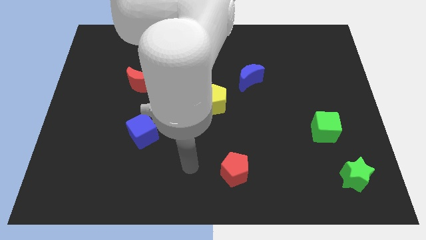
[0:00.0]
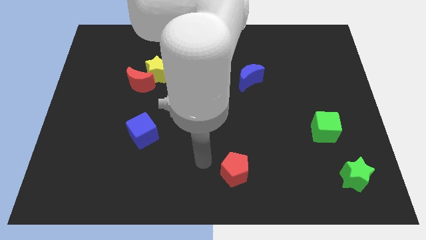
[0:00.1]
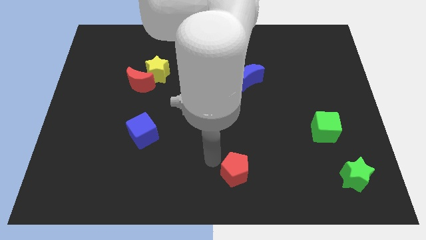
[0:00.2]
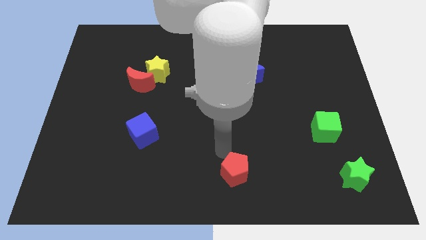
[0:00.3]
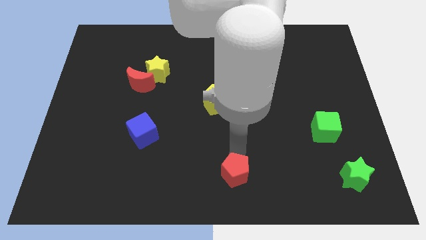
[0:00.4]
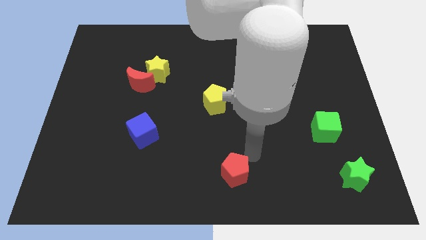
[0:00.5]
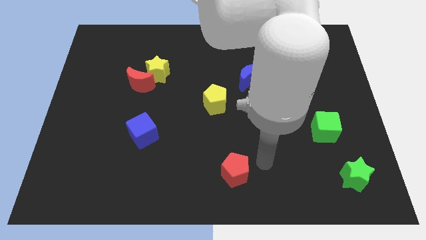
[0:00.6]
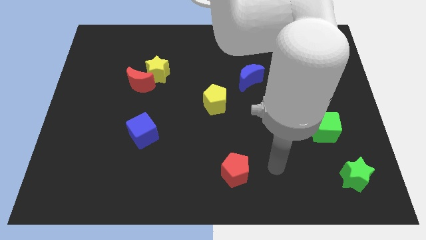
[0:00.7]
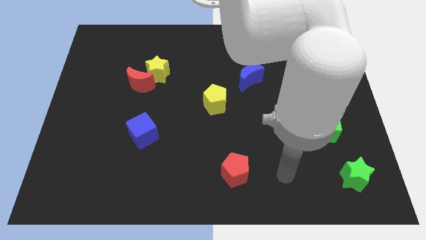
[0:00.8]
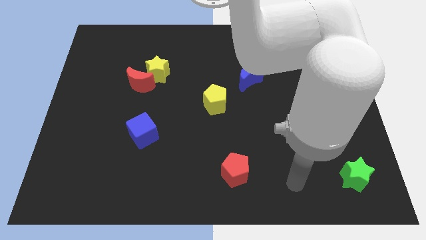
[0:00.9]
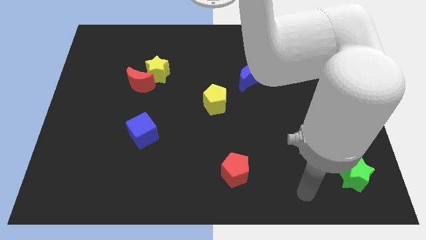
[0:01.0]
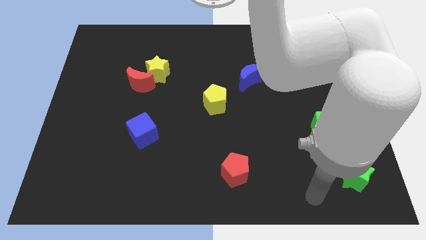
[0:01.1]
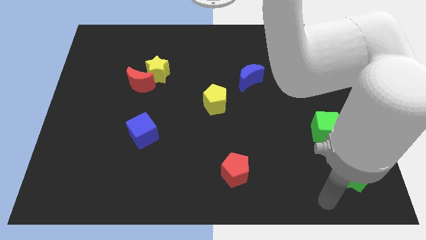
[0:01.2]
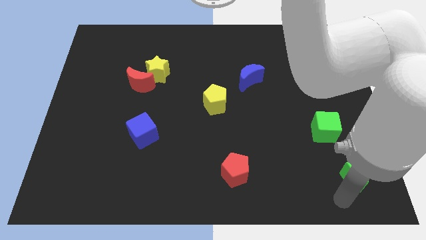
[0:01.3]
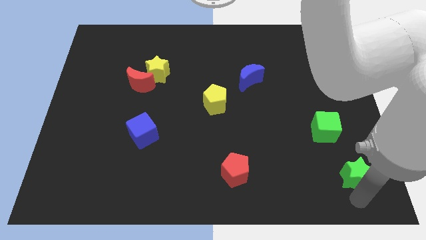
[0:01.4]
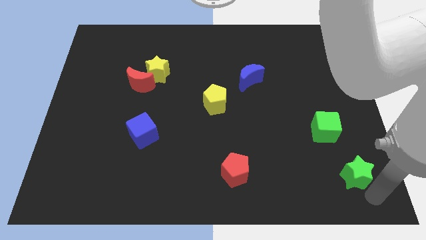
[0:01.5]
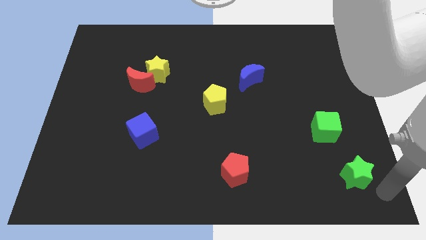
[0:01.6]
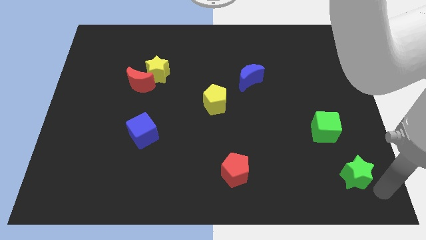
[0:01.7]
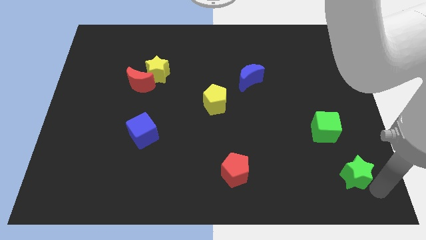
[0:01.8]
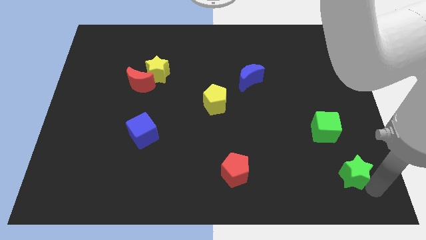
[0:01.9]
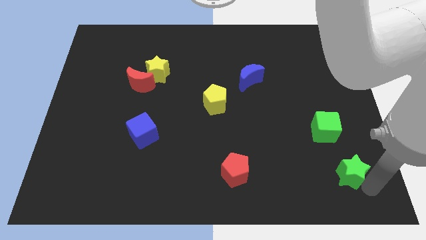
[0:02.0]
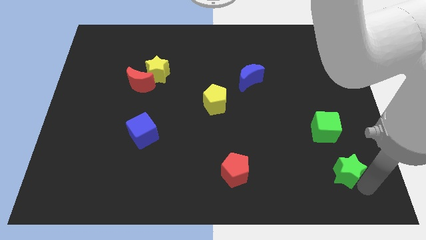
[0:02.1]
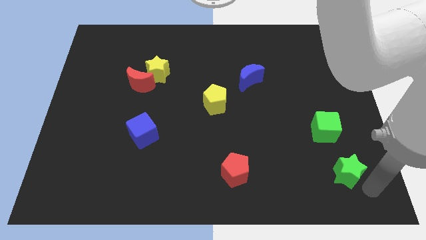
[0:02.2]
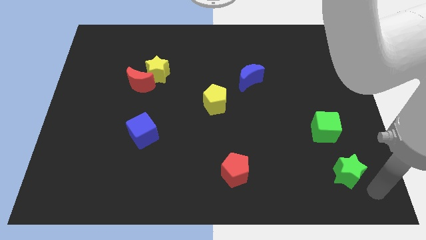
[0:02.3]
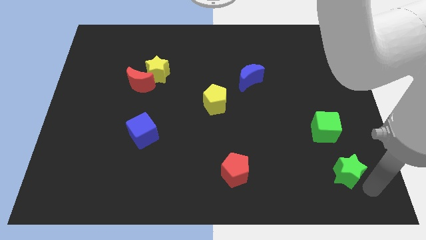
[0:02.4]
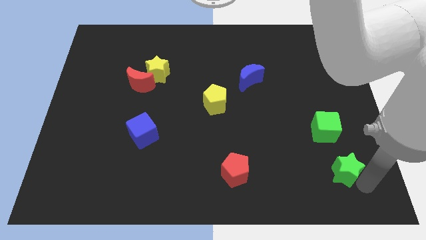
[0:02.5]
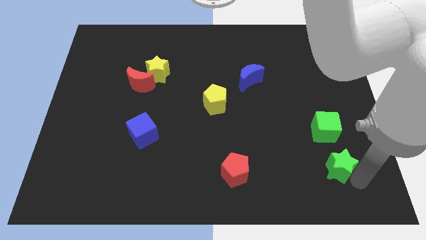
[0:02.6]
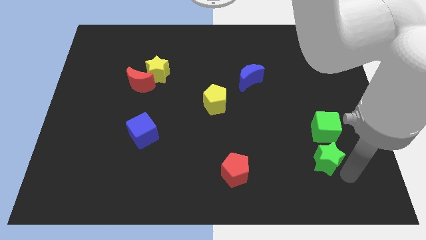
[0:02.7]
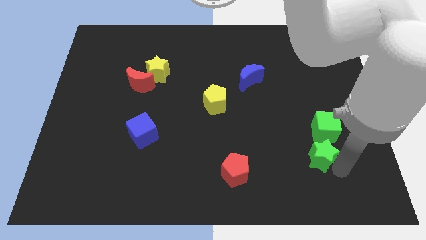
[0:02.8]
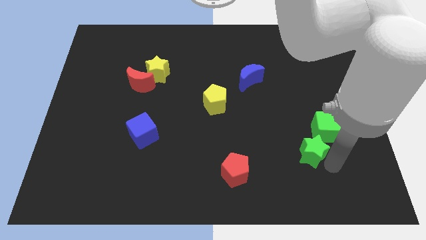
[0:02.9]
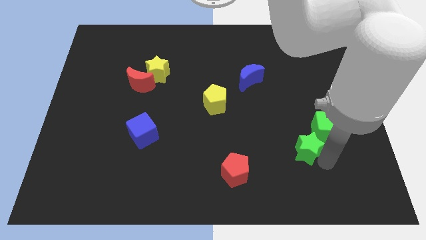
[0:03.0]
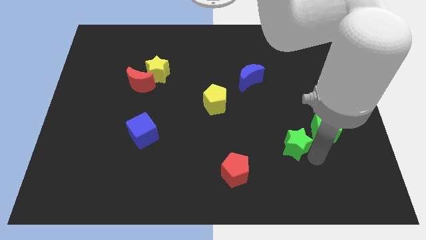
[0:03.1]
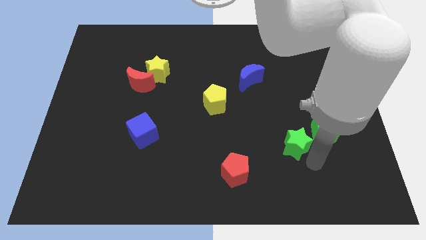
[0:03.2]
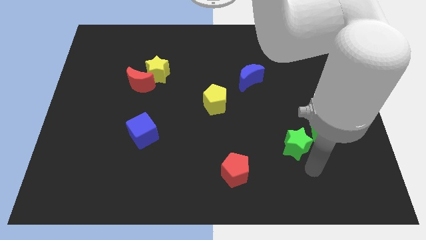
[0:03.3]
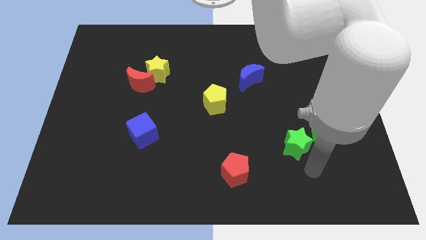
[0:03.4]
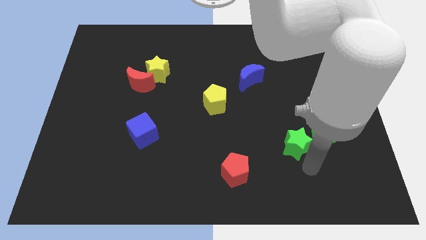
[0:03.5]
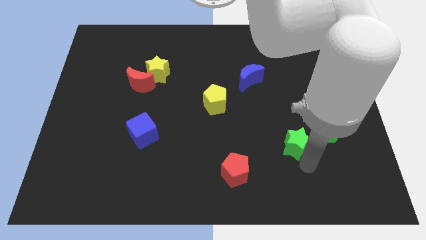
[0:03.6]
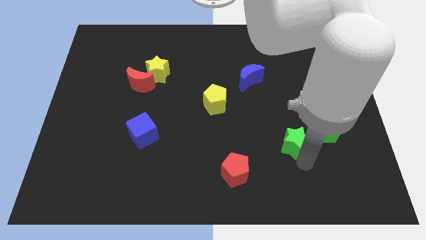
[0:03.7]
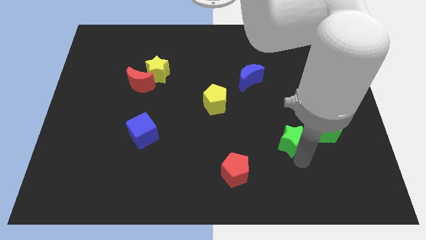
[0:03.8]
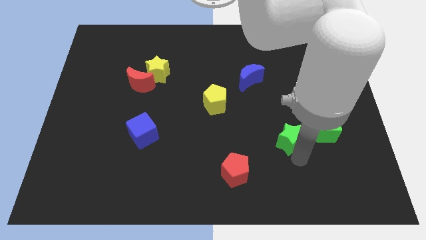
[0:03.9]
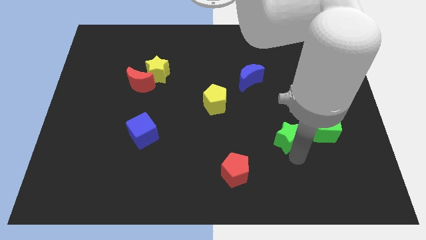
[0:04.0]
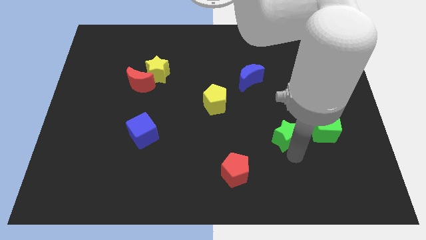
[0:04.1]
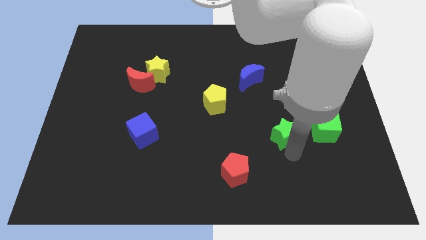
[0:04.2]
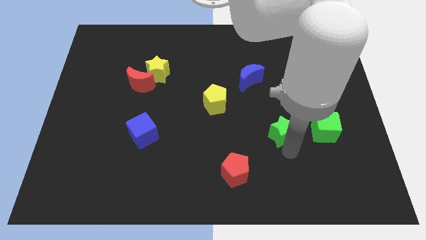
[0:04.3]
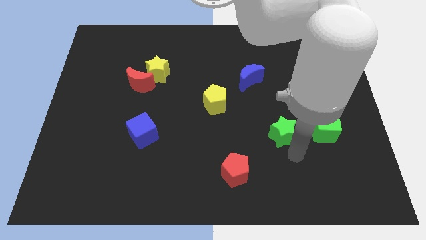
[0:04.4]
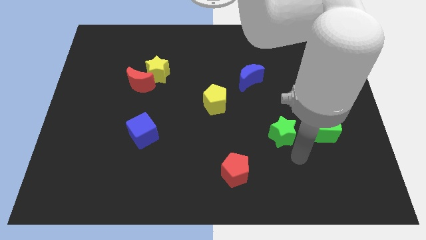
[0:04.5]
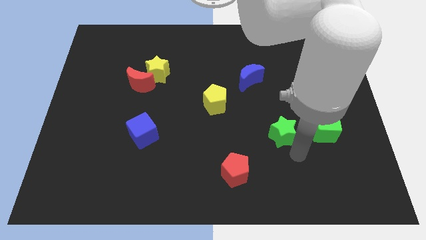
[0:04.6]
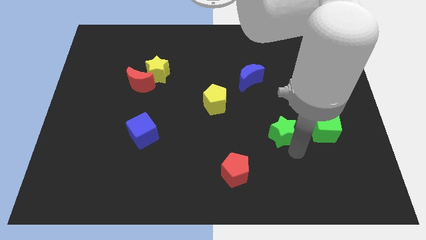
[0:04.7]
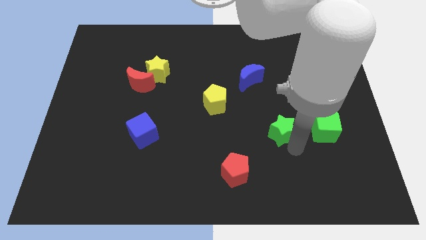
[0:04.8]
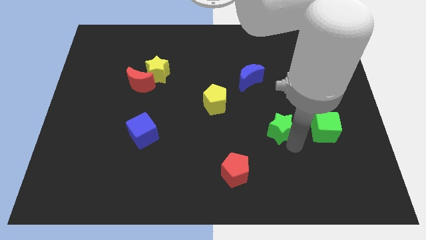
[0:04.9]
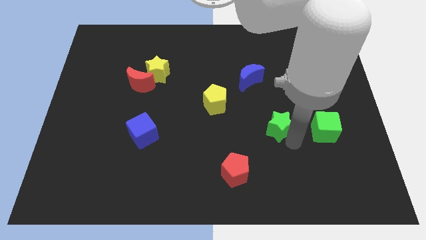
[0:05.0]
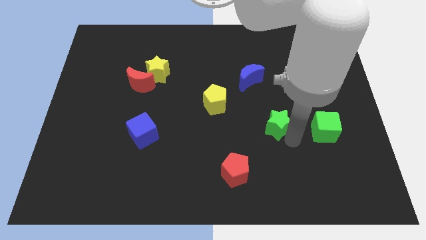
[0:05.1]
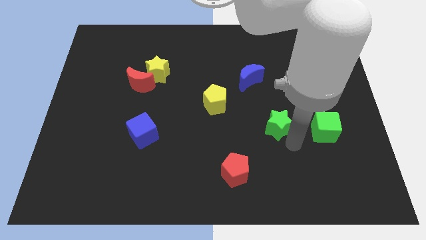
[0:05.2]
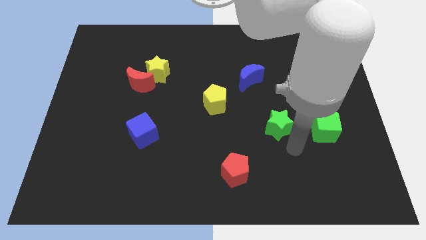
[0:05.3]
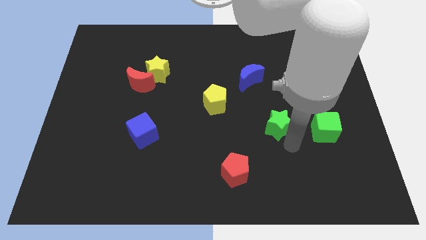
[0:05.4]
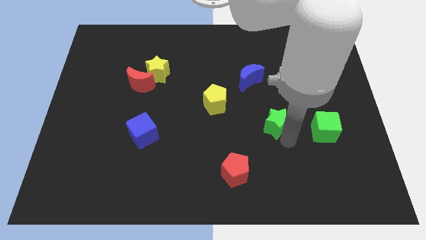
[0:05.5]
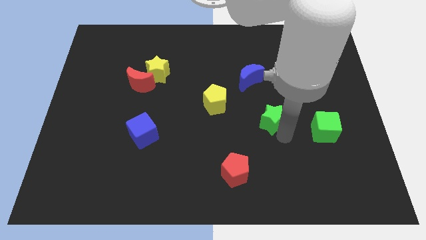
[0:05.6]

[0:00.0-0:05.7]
push the green star upwards and left diagonally

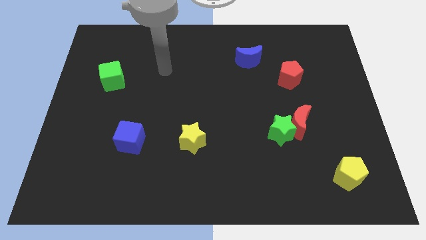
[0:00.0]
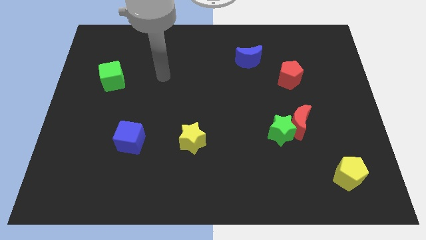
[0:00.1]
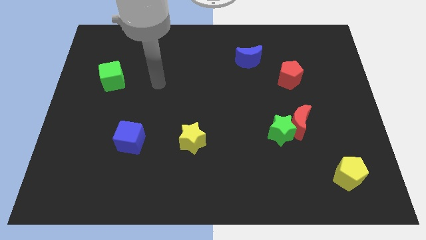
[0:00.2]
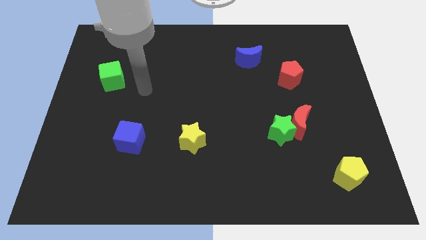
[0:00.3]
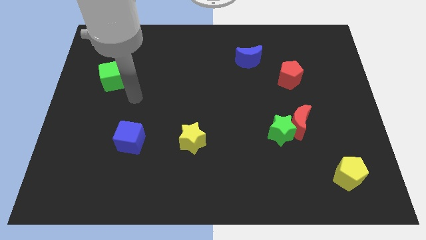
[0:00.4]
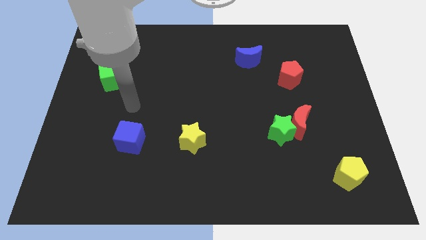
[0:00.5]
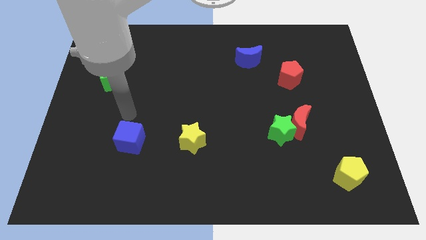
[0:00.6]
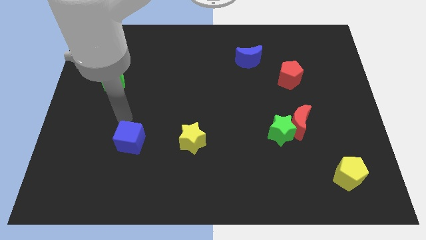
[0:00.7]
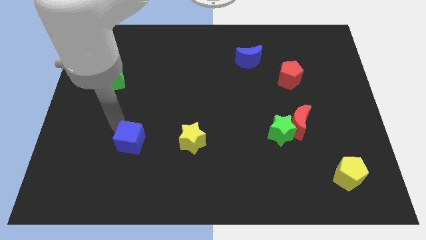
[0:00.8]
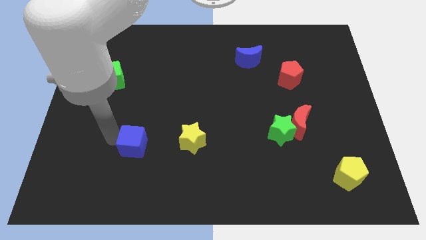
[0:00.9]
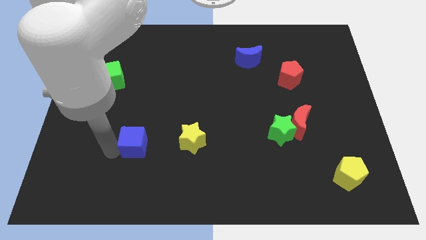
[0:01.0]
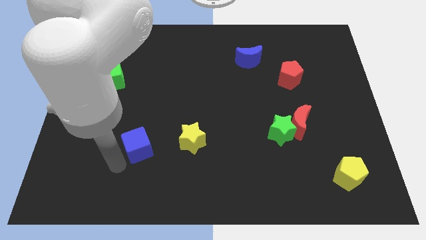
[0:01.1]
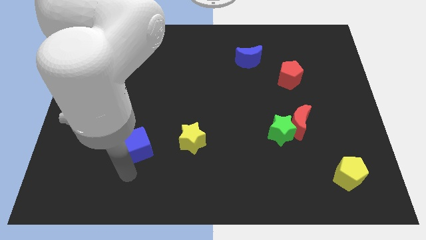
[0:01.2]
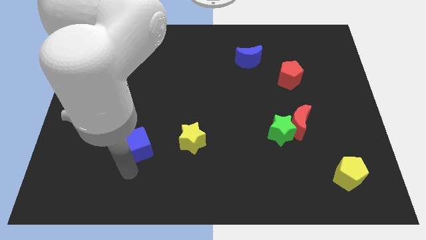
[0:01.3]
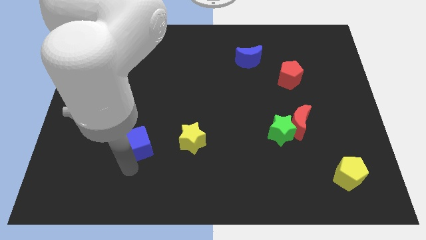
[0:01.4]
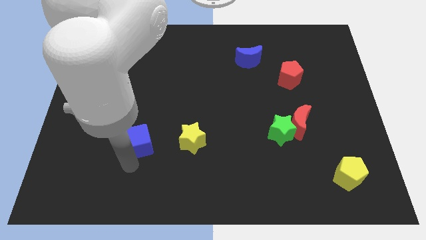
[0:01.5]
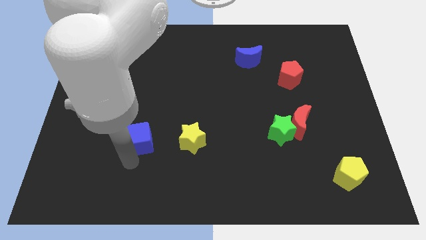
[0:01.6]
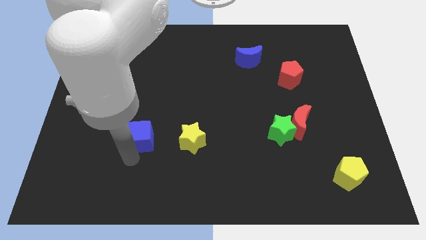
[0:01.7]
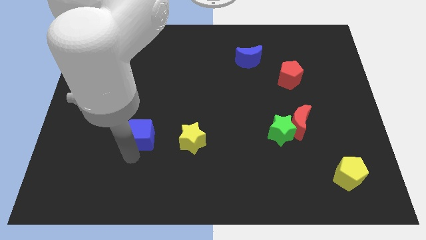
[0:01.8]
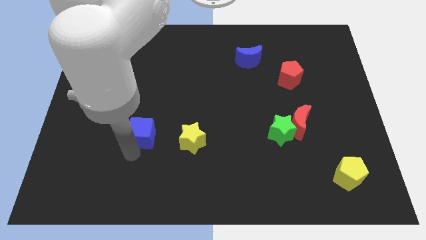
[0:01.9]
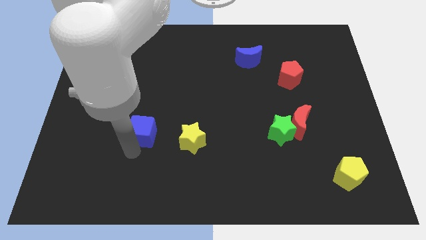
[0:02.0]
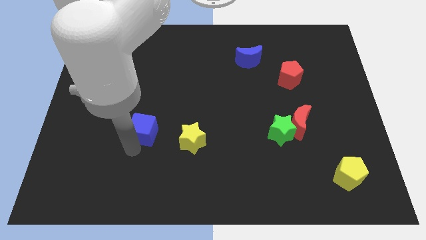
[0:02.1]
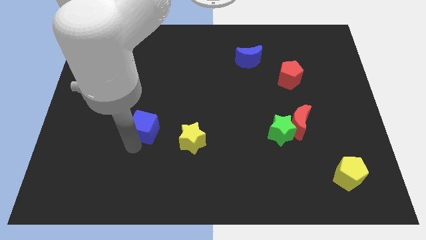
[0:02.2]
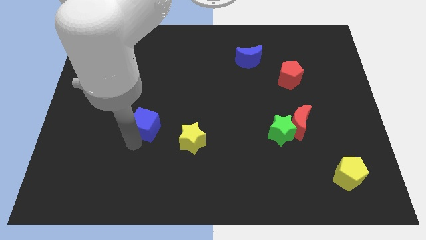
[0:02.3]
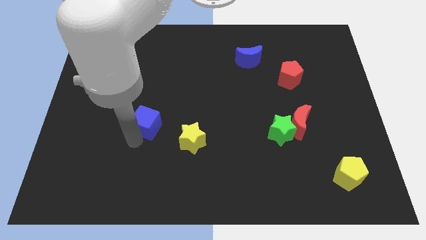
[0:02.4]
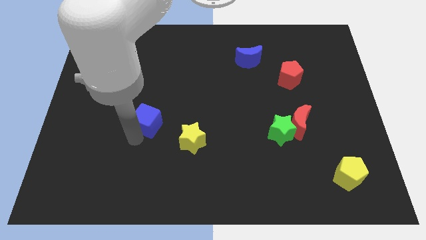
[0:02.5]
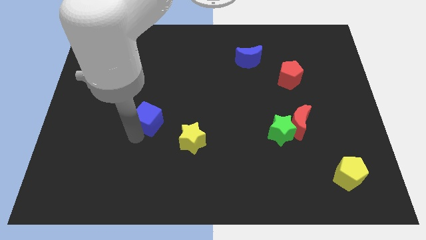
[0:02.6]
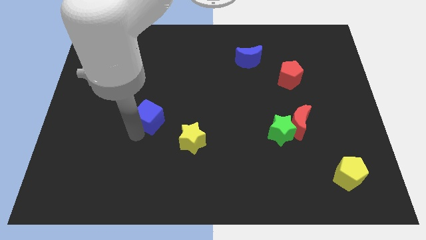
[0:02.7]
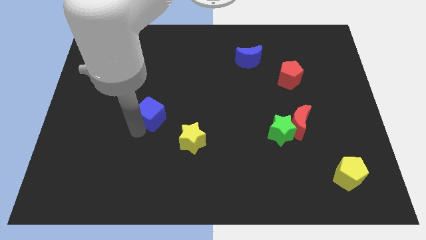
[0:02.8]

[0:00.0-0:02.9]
move the blue cube diagonally up and right a little bit
